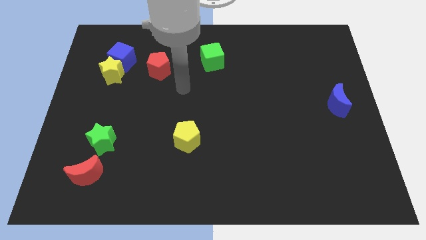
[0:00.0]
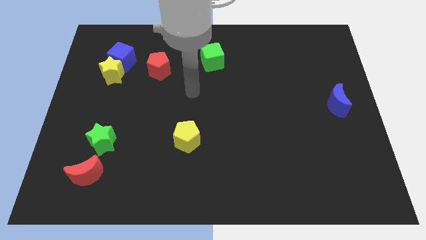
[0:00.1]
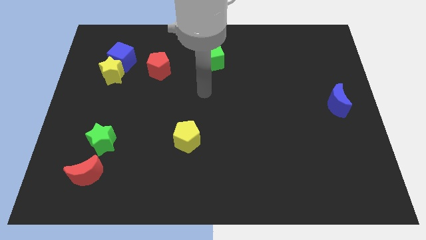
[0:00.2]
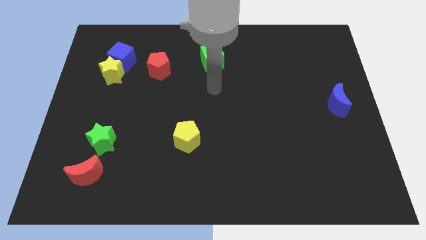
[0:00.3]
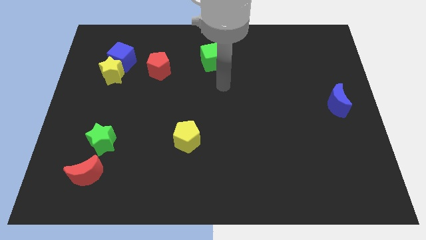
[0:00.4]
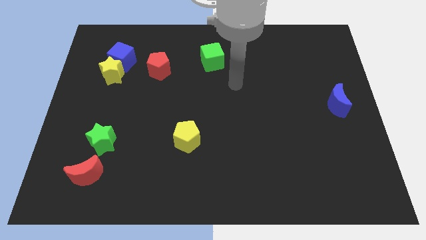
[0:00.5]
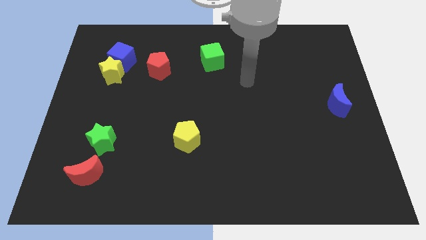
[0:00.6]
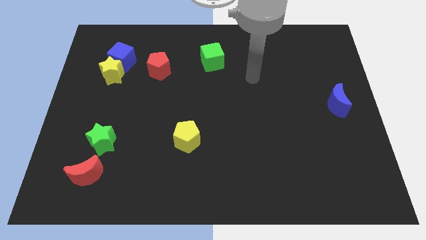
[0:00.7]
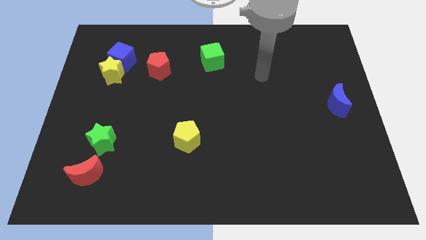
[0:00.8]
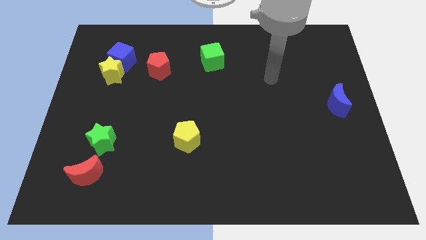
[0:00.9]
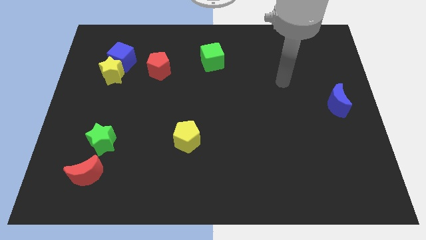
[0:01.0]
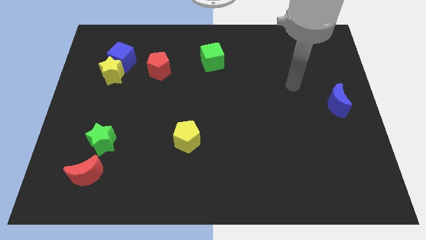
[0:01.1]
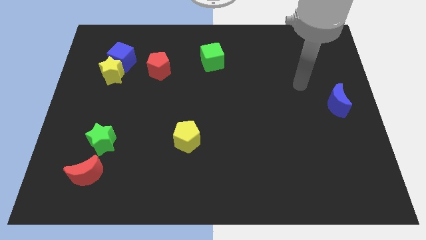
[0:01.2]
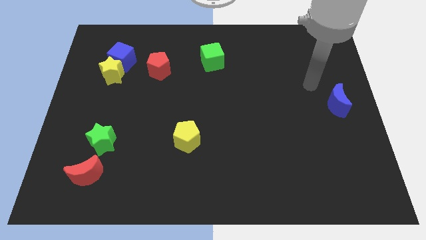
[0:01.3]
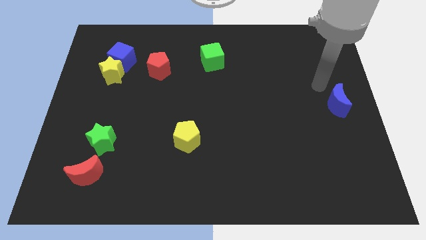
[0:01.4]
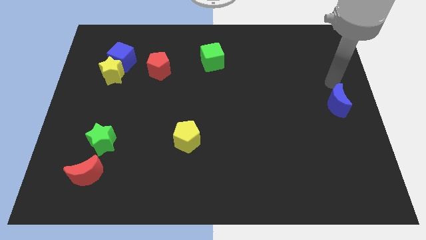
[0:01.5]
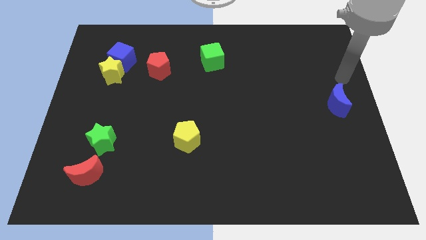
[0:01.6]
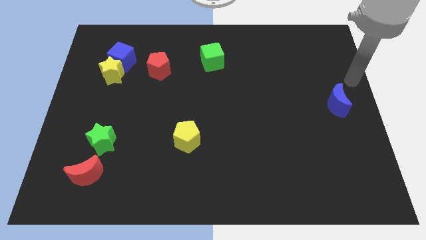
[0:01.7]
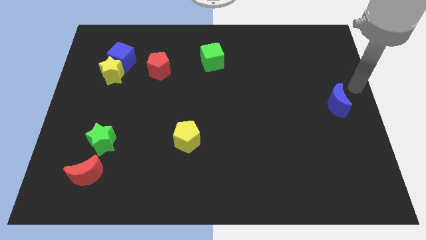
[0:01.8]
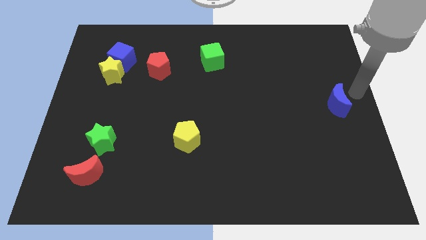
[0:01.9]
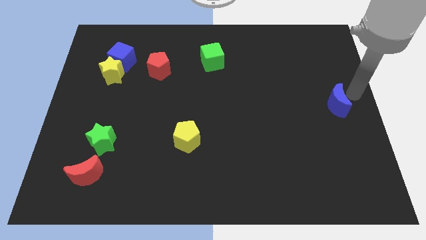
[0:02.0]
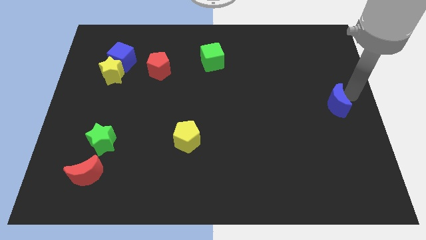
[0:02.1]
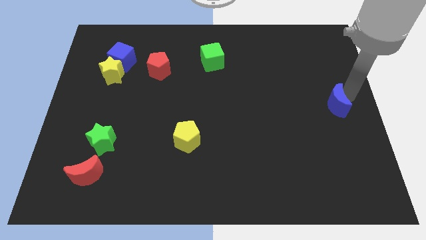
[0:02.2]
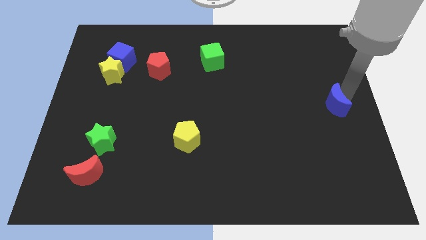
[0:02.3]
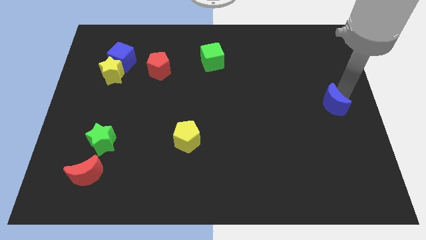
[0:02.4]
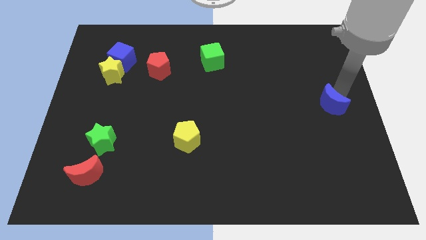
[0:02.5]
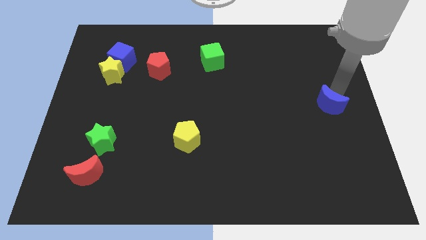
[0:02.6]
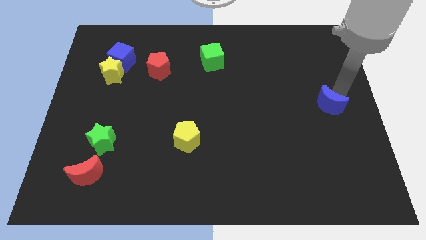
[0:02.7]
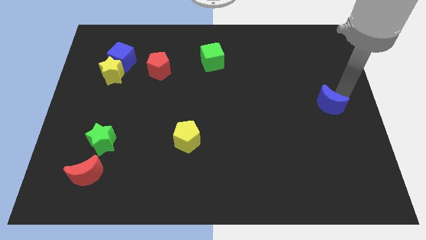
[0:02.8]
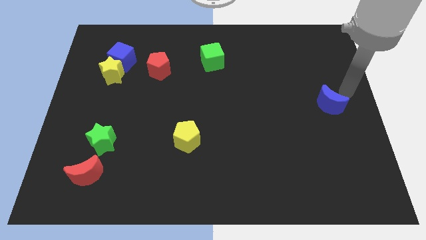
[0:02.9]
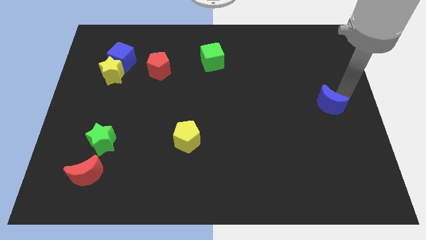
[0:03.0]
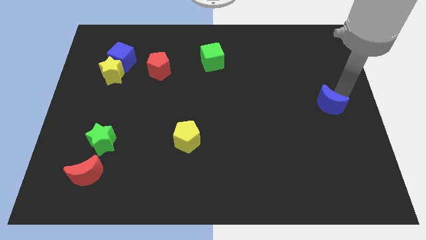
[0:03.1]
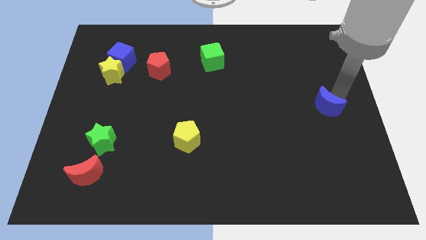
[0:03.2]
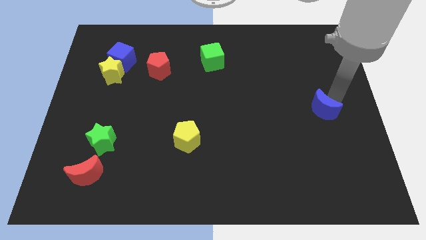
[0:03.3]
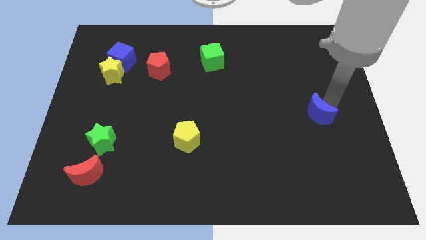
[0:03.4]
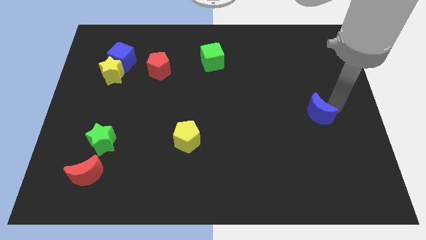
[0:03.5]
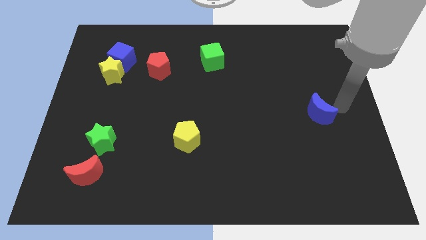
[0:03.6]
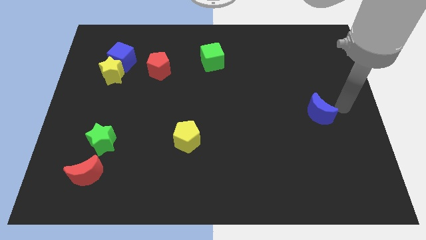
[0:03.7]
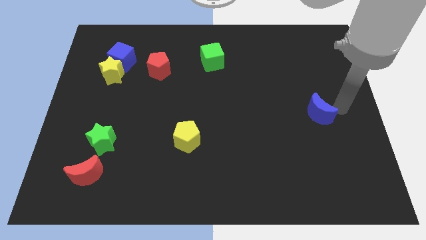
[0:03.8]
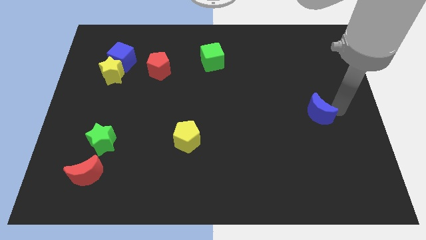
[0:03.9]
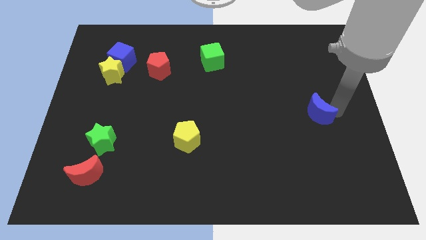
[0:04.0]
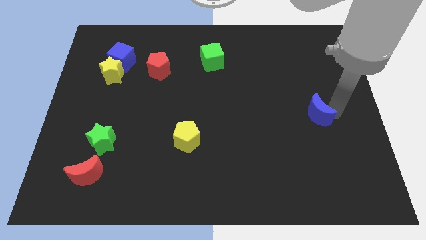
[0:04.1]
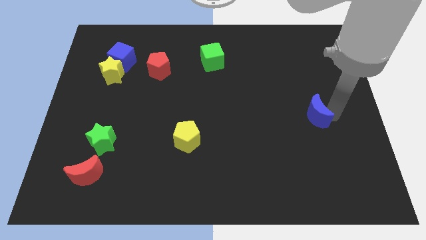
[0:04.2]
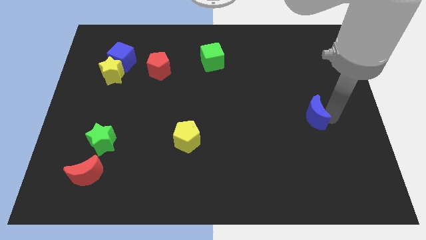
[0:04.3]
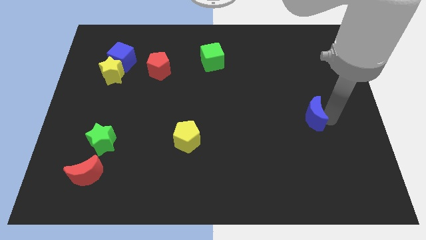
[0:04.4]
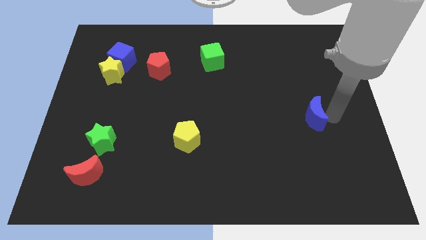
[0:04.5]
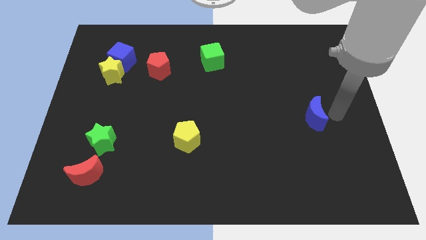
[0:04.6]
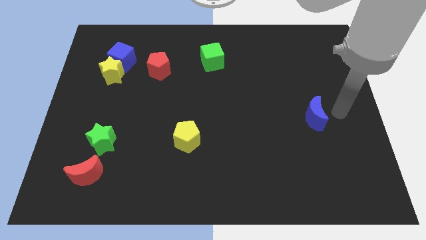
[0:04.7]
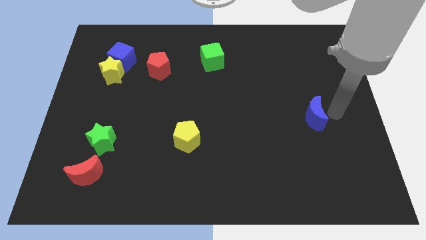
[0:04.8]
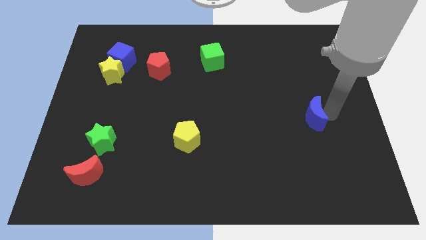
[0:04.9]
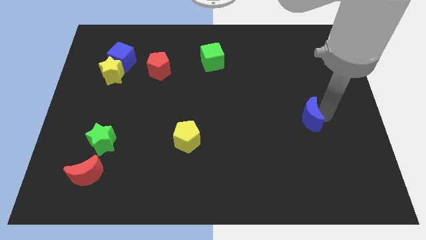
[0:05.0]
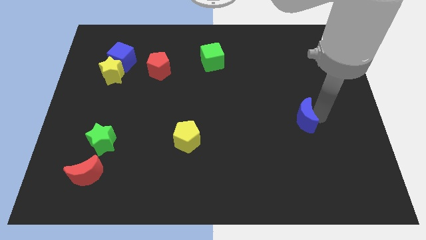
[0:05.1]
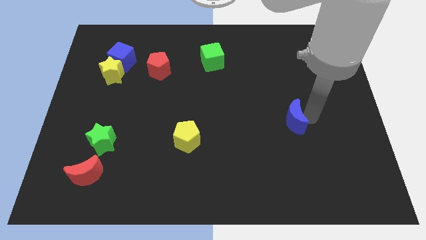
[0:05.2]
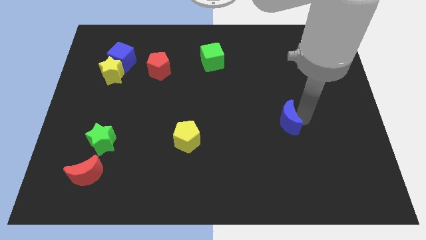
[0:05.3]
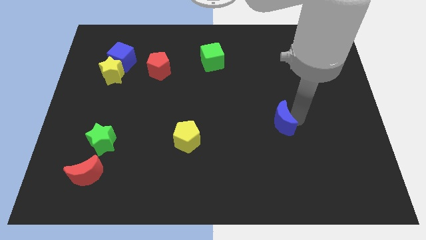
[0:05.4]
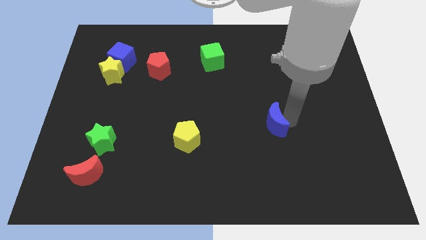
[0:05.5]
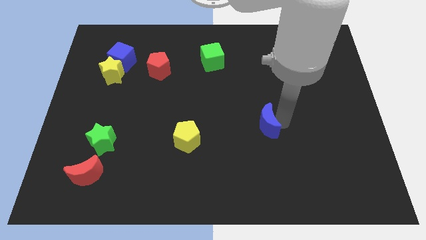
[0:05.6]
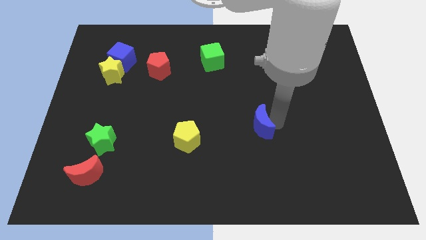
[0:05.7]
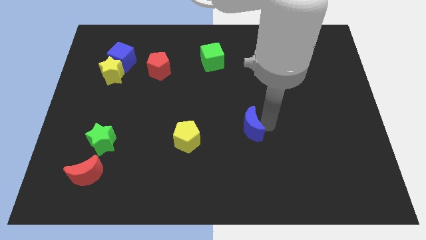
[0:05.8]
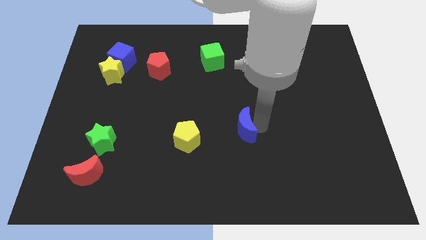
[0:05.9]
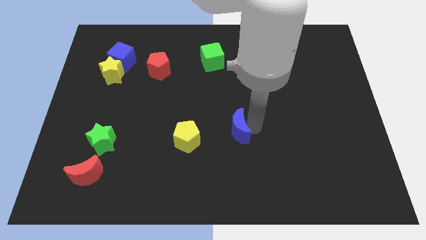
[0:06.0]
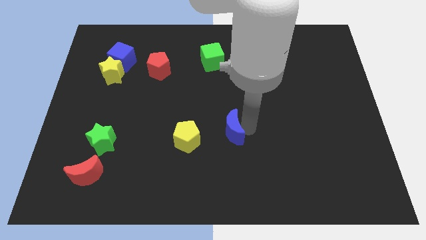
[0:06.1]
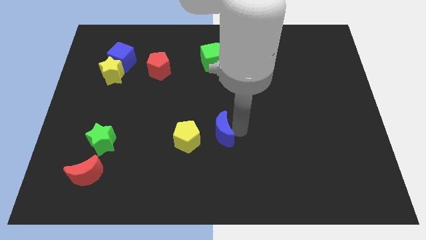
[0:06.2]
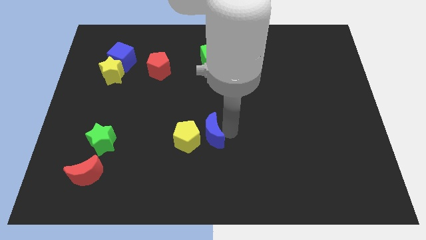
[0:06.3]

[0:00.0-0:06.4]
push the blue moon to the yellow pentagon
